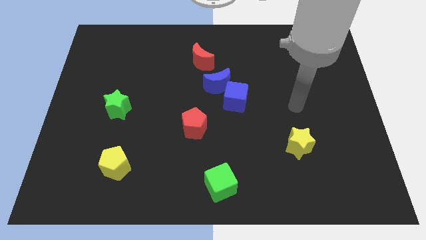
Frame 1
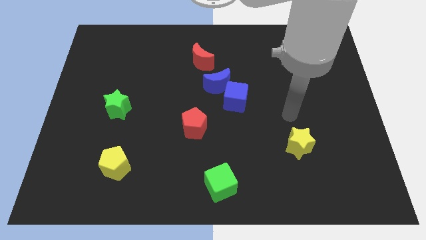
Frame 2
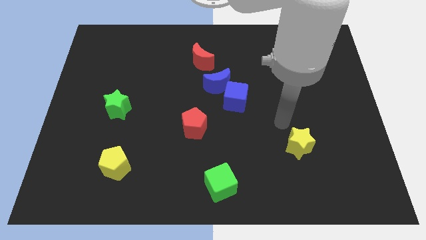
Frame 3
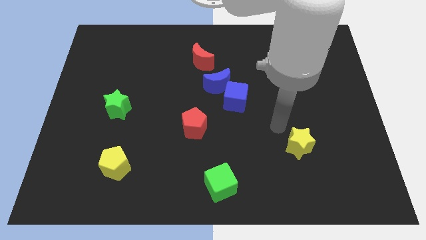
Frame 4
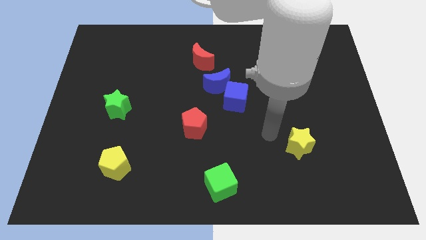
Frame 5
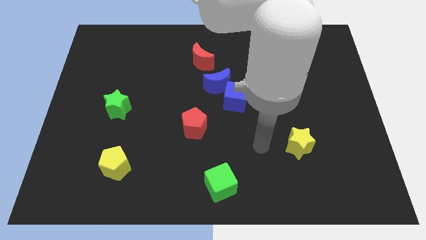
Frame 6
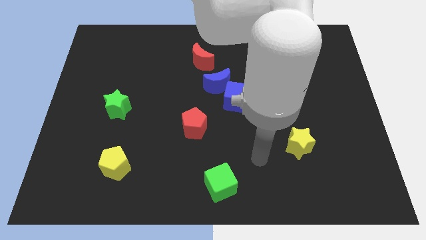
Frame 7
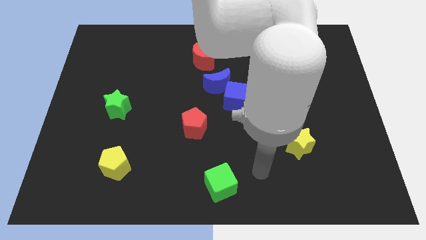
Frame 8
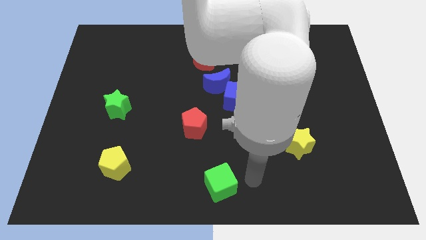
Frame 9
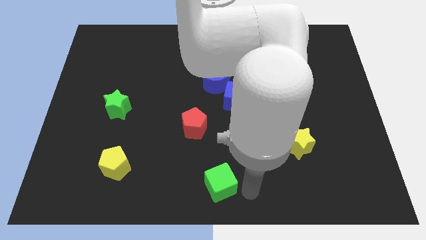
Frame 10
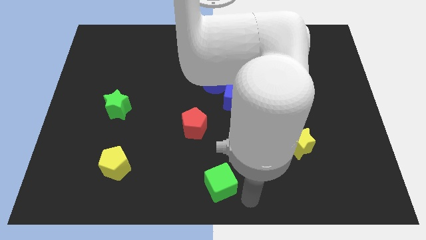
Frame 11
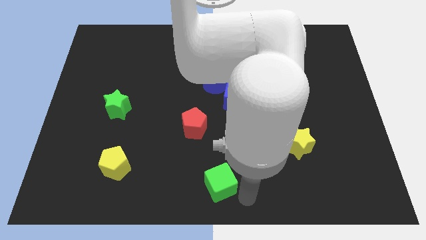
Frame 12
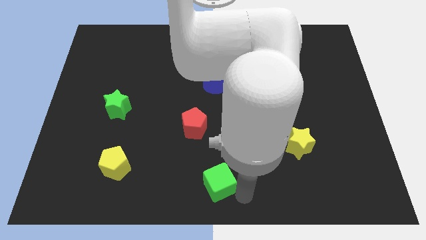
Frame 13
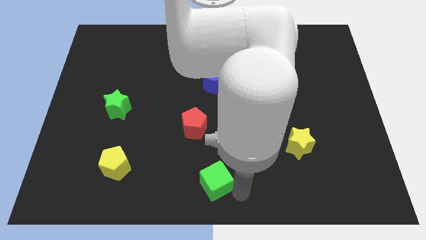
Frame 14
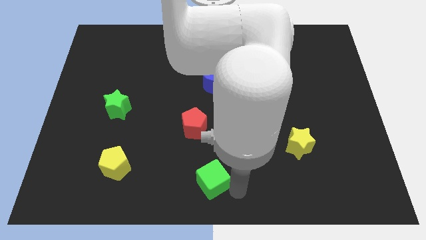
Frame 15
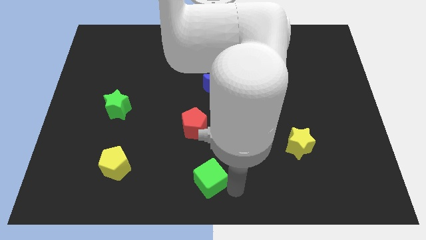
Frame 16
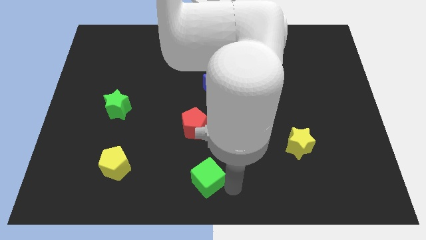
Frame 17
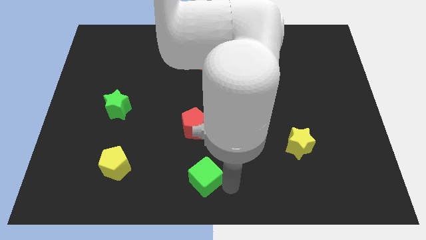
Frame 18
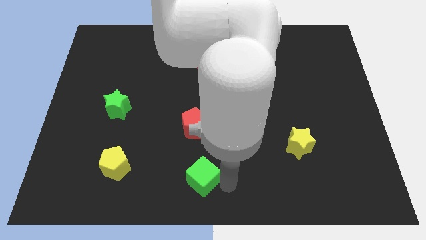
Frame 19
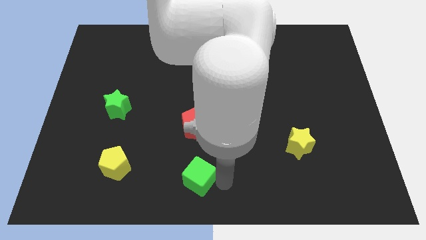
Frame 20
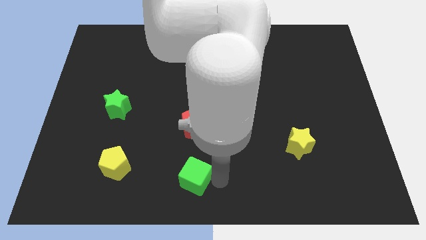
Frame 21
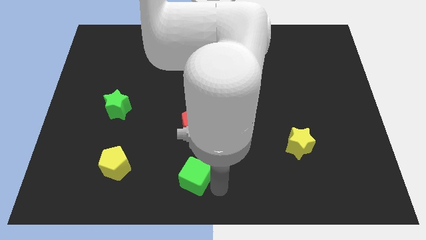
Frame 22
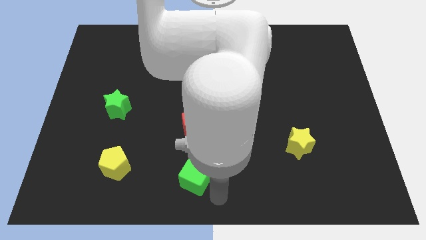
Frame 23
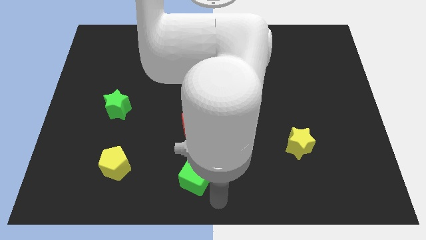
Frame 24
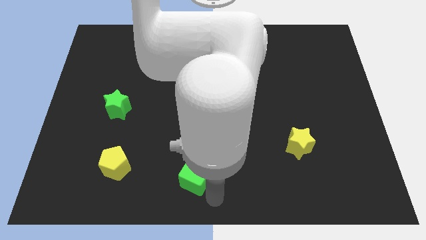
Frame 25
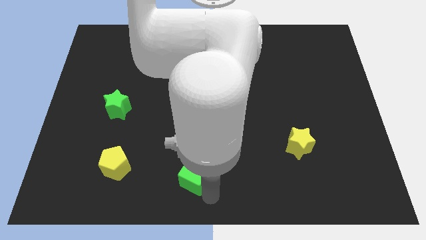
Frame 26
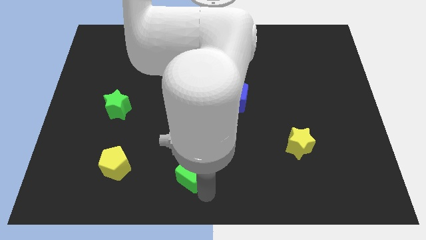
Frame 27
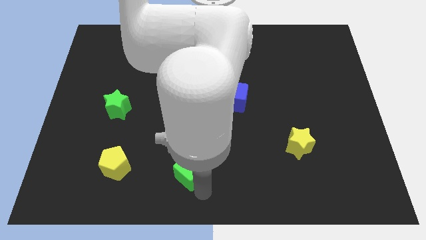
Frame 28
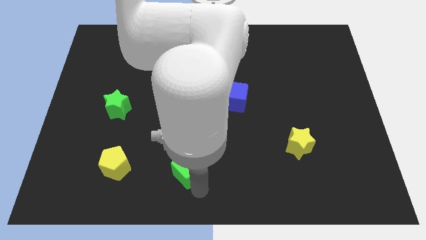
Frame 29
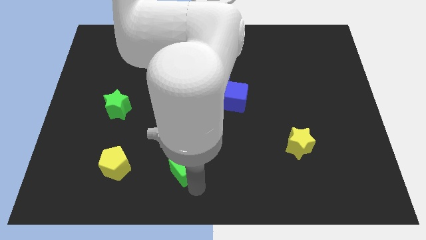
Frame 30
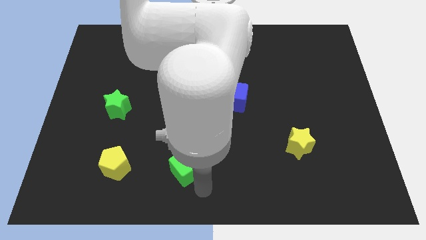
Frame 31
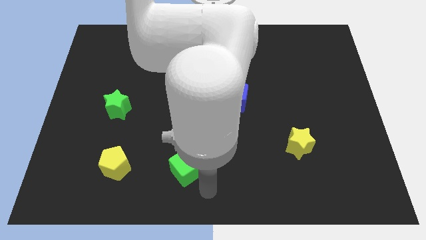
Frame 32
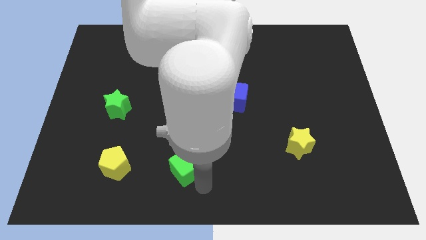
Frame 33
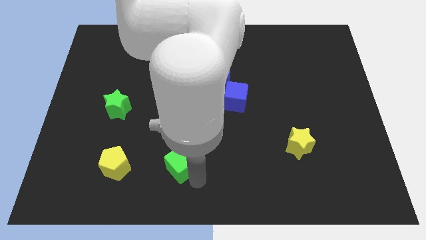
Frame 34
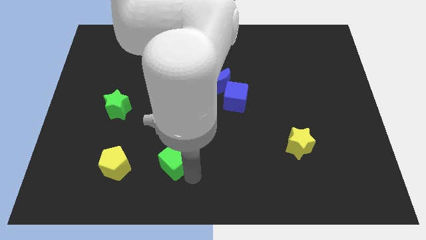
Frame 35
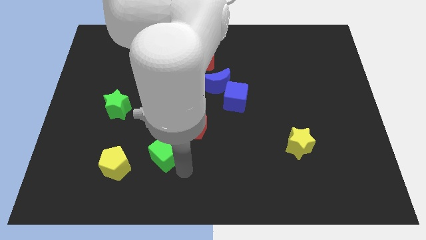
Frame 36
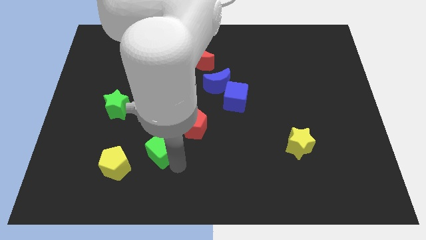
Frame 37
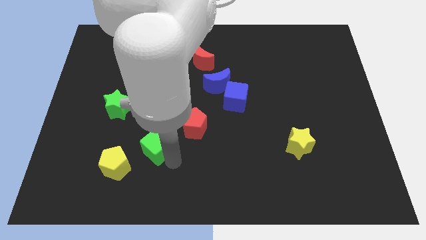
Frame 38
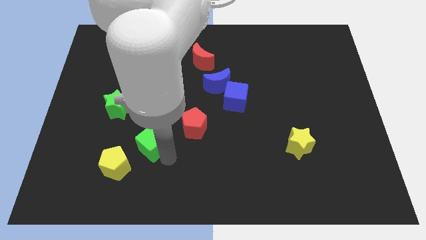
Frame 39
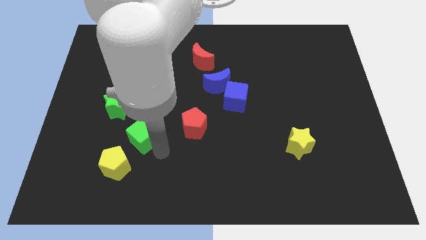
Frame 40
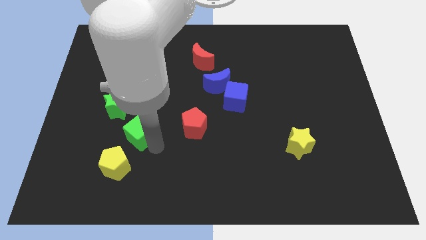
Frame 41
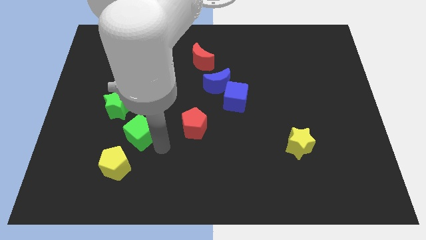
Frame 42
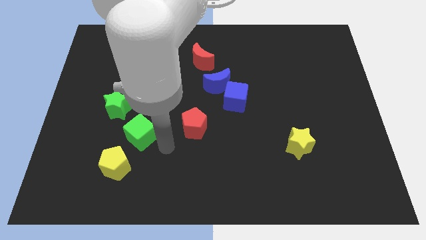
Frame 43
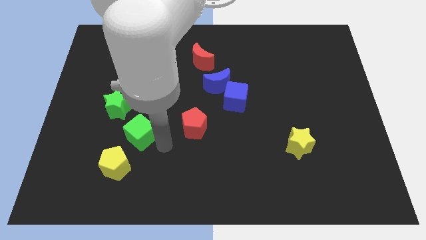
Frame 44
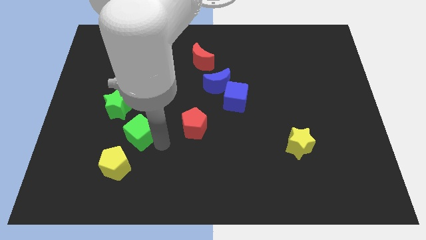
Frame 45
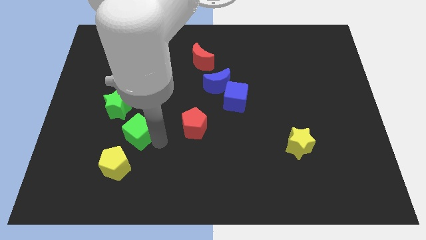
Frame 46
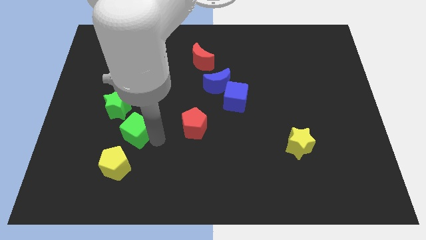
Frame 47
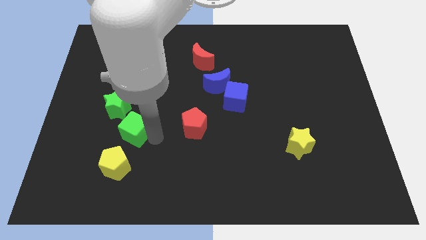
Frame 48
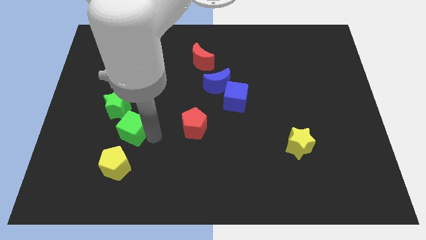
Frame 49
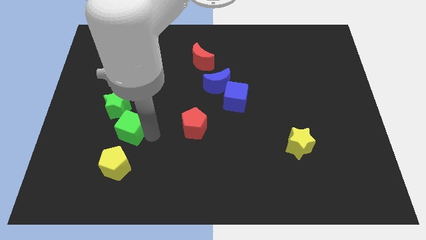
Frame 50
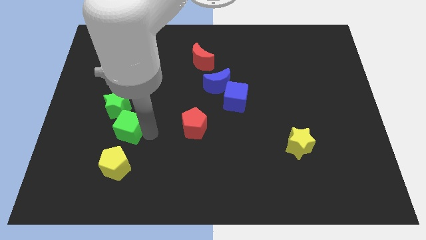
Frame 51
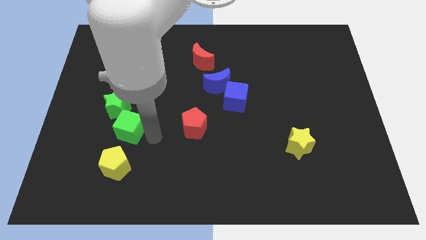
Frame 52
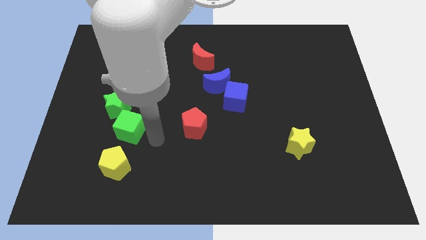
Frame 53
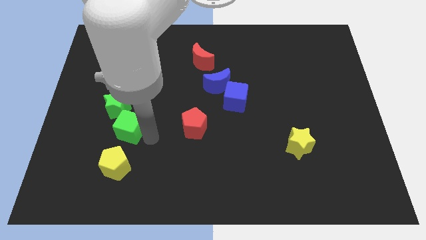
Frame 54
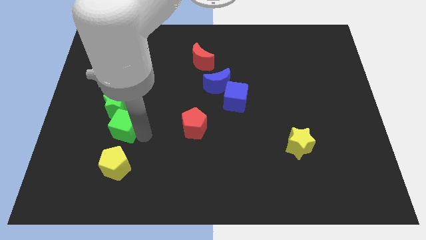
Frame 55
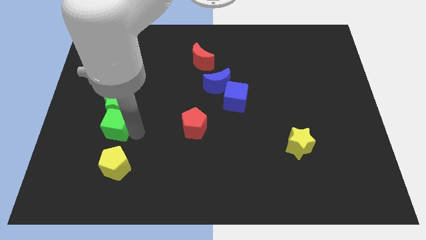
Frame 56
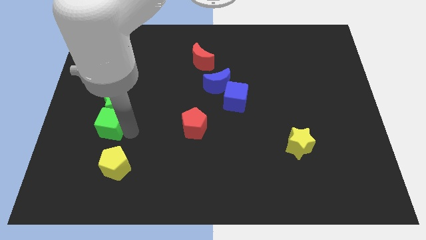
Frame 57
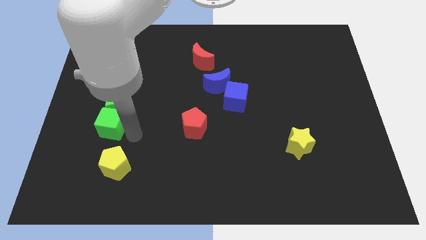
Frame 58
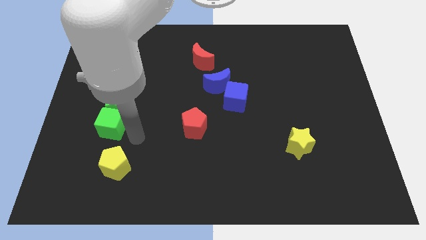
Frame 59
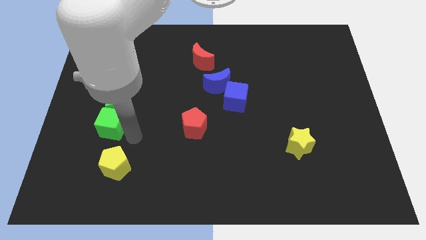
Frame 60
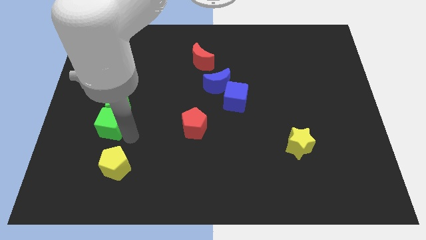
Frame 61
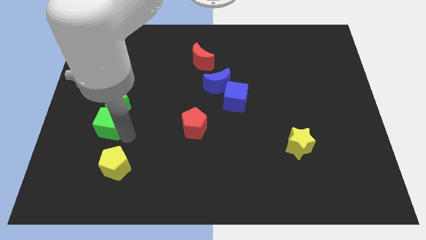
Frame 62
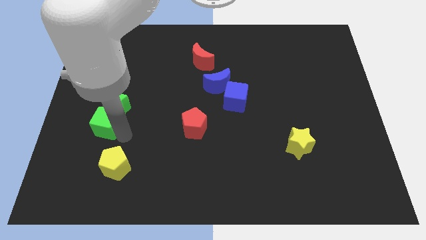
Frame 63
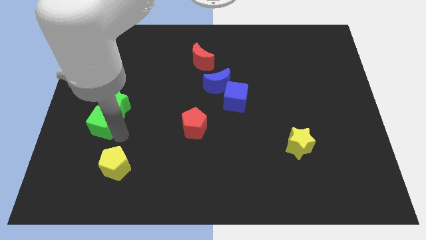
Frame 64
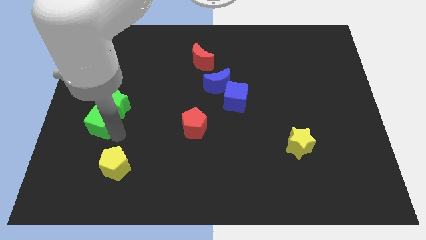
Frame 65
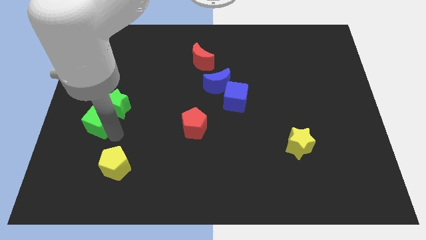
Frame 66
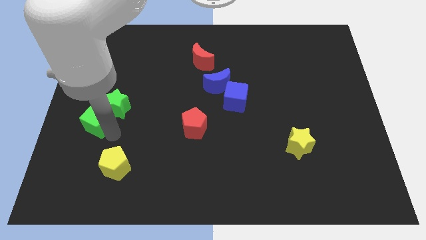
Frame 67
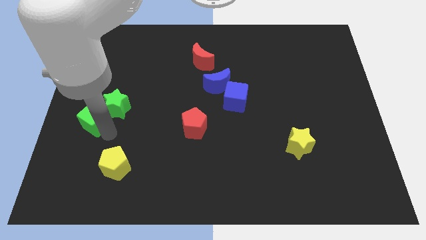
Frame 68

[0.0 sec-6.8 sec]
slide the green cube to the left side of the board
